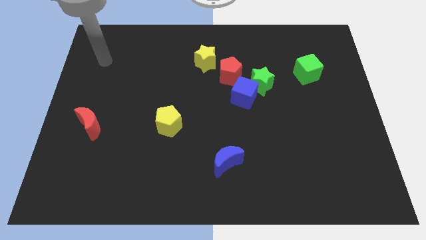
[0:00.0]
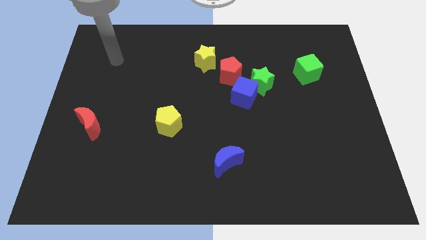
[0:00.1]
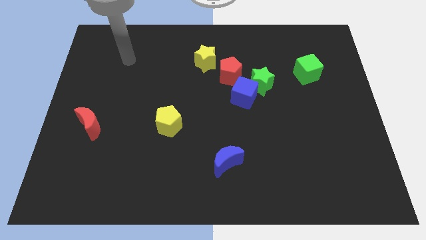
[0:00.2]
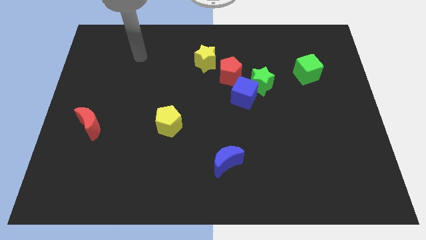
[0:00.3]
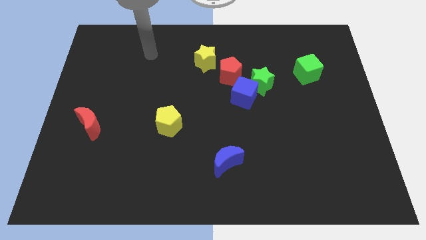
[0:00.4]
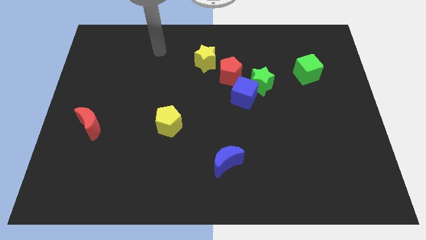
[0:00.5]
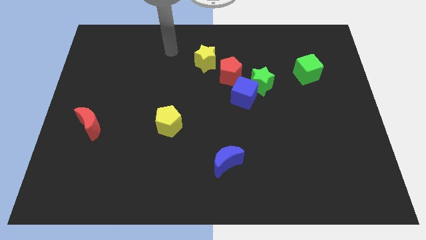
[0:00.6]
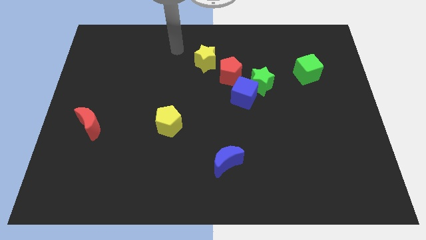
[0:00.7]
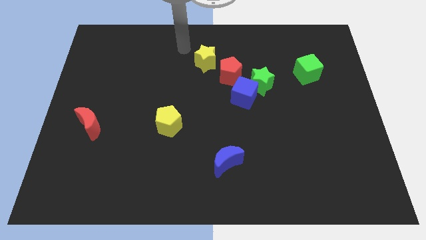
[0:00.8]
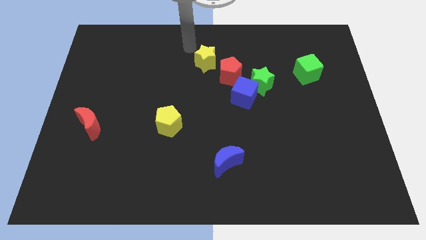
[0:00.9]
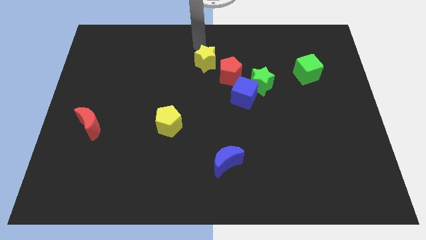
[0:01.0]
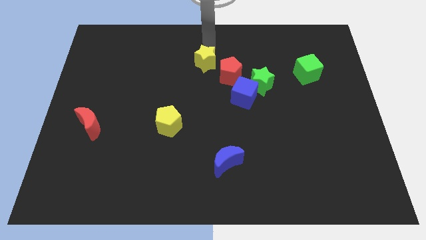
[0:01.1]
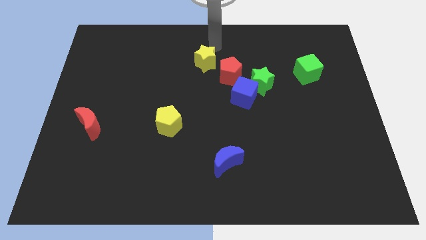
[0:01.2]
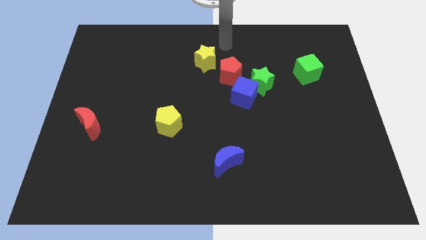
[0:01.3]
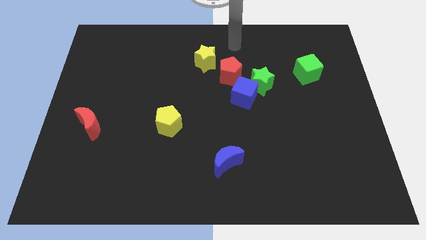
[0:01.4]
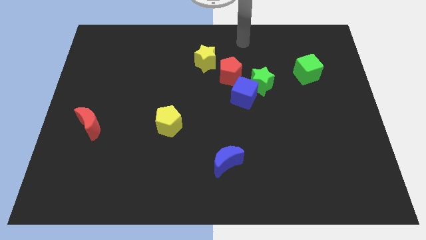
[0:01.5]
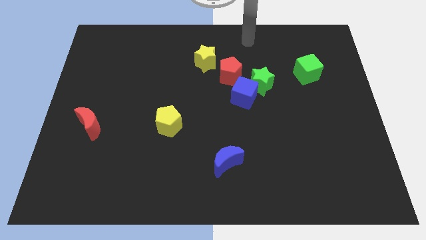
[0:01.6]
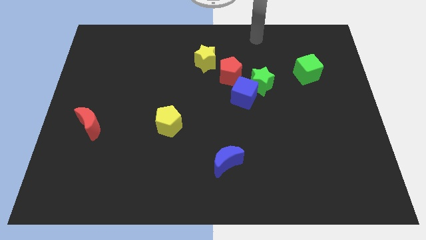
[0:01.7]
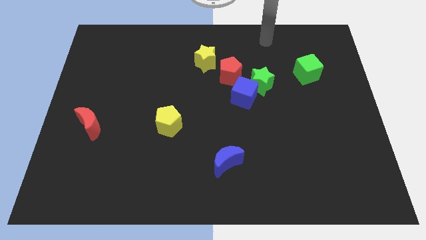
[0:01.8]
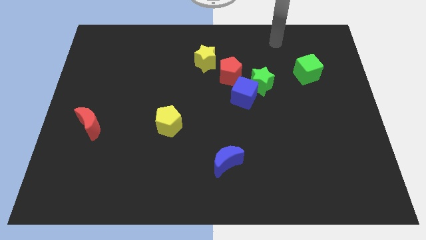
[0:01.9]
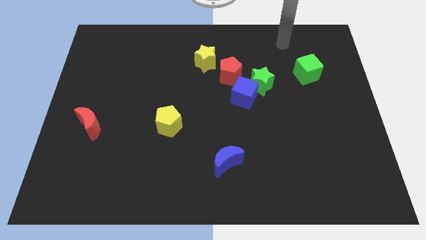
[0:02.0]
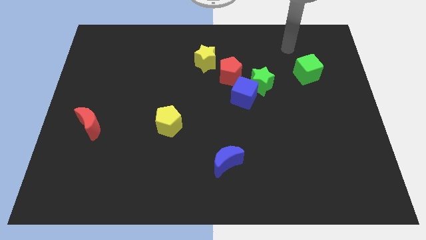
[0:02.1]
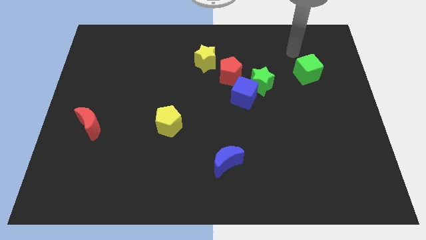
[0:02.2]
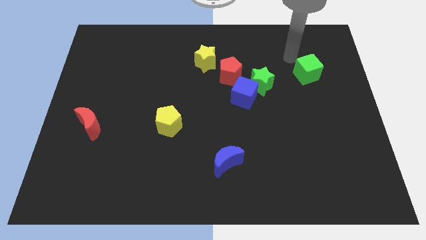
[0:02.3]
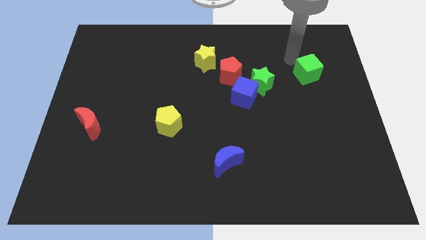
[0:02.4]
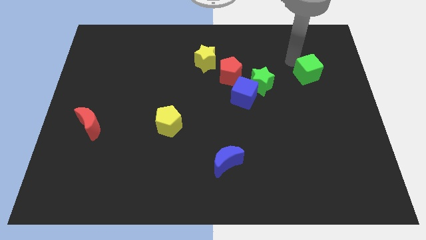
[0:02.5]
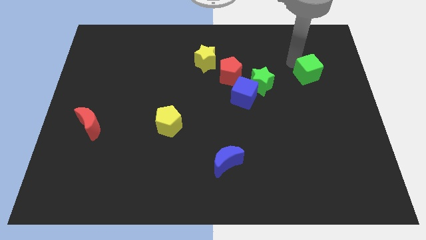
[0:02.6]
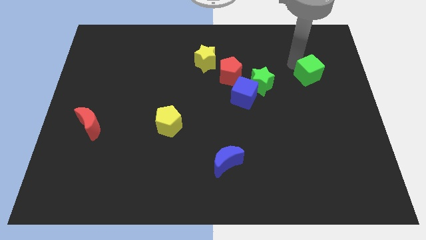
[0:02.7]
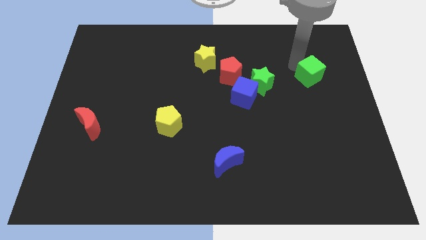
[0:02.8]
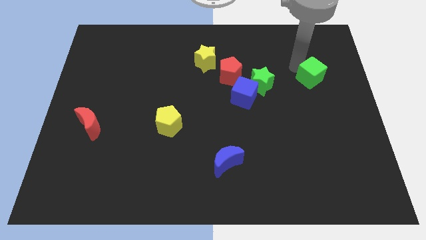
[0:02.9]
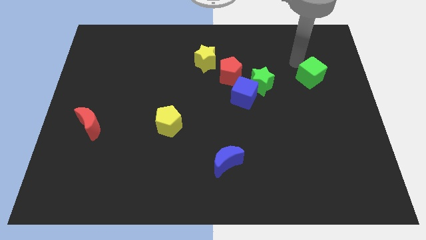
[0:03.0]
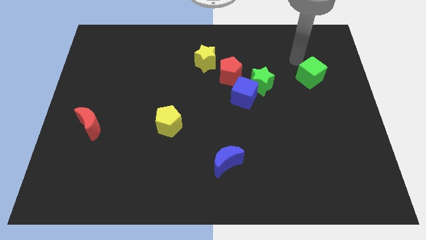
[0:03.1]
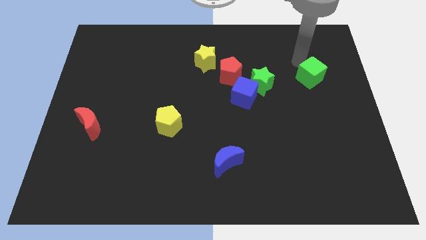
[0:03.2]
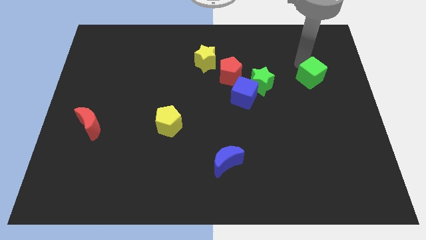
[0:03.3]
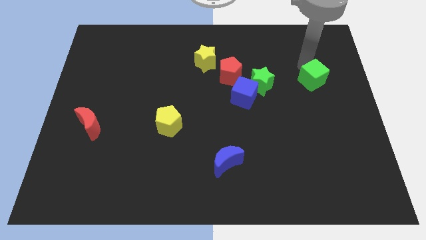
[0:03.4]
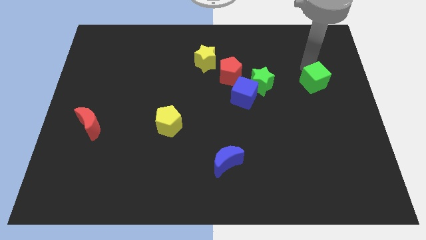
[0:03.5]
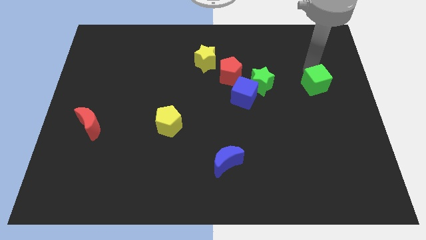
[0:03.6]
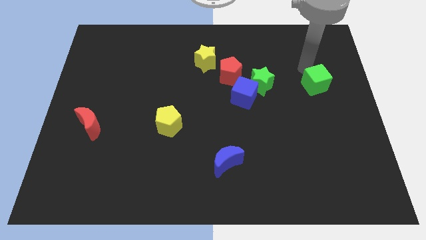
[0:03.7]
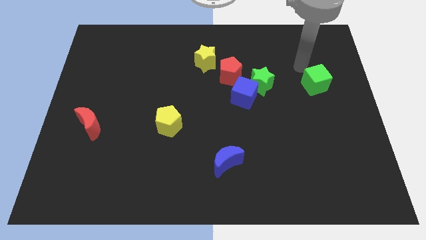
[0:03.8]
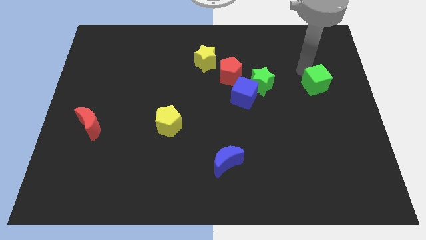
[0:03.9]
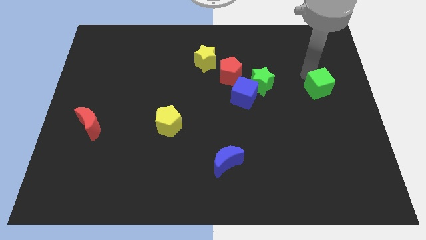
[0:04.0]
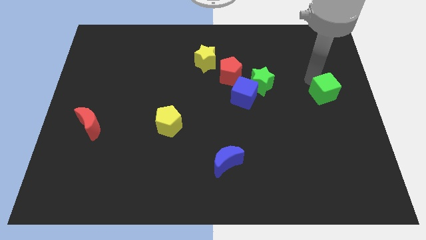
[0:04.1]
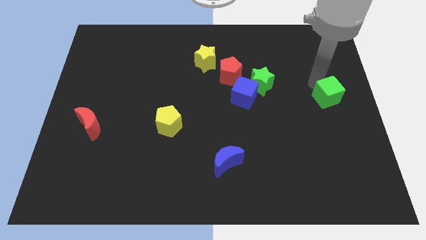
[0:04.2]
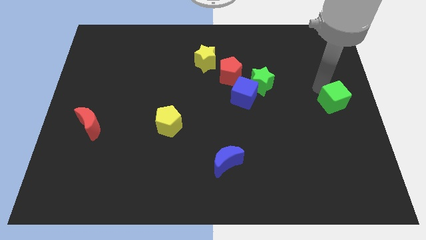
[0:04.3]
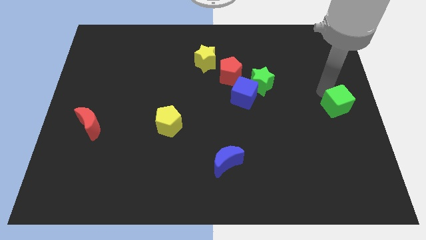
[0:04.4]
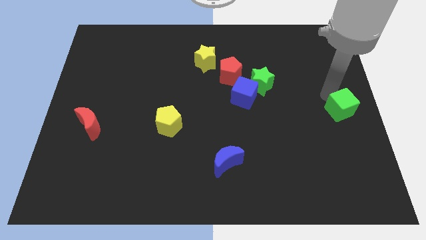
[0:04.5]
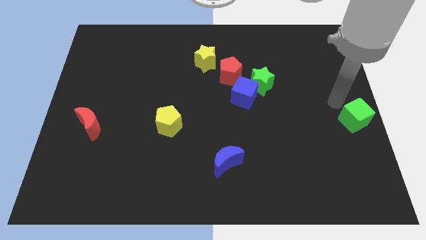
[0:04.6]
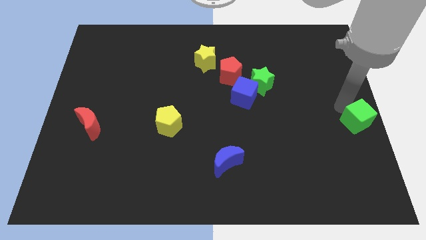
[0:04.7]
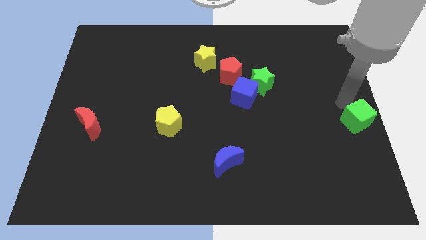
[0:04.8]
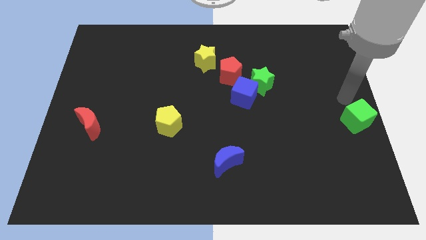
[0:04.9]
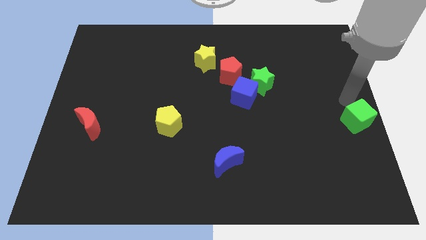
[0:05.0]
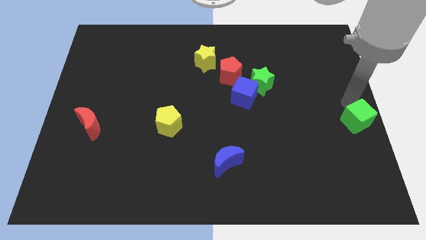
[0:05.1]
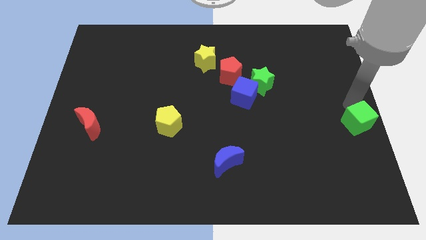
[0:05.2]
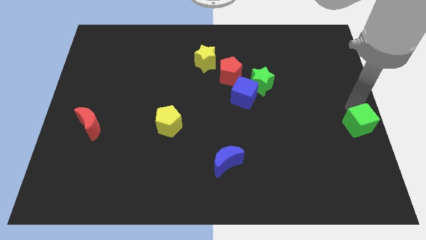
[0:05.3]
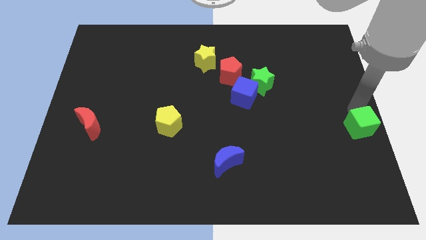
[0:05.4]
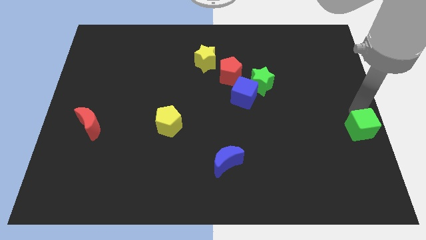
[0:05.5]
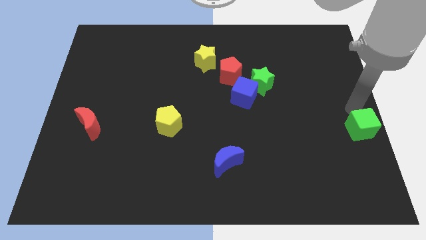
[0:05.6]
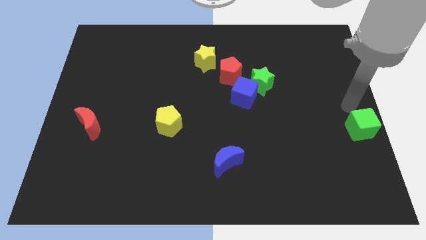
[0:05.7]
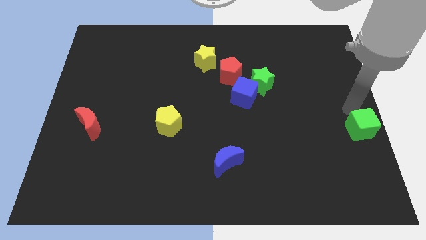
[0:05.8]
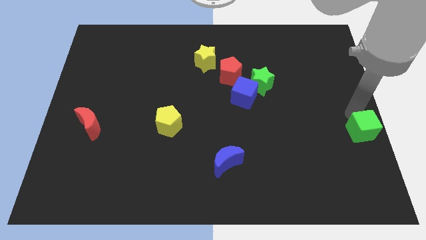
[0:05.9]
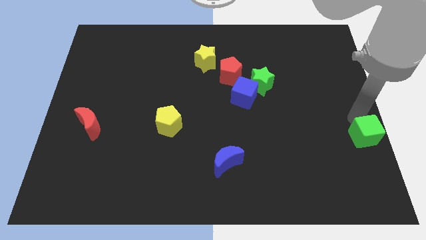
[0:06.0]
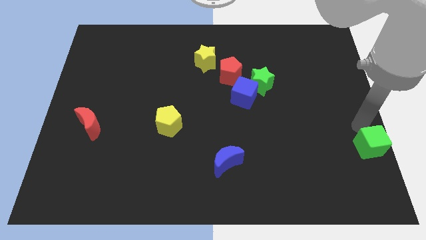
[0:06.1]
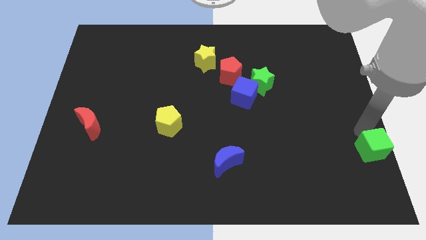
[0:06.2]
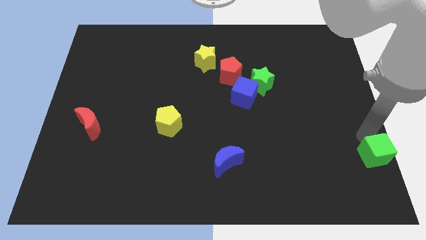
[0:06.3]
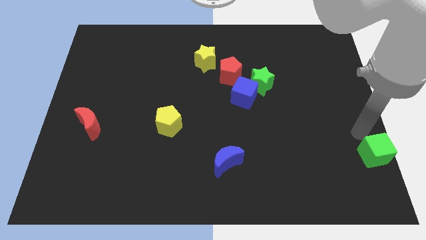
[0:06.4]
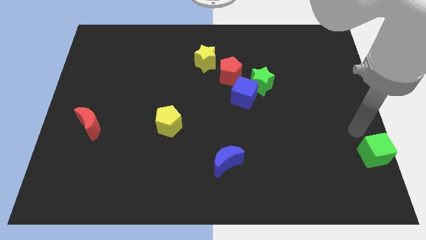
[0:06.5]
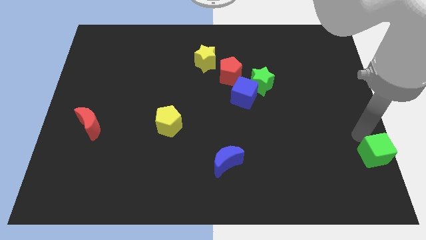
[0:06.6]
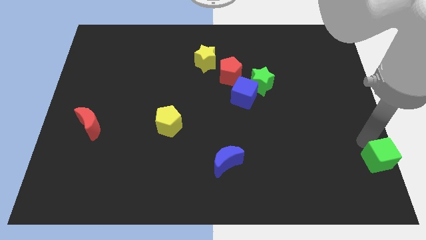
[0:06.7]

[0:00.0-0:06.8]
move the green cube to the bottom right
